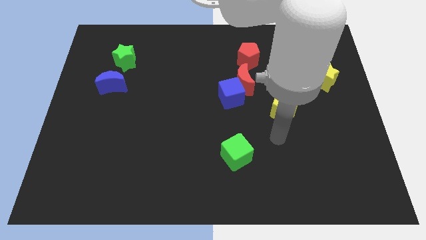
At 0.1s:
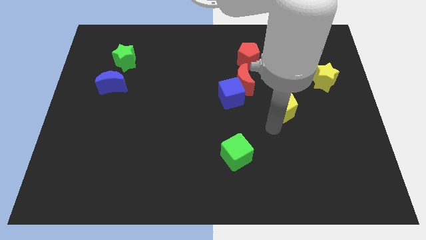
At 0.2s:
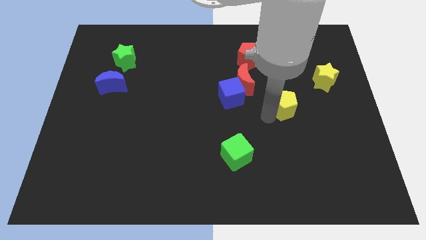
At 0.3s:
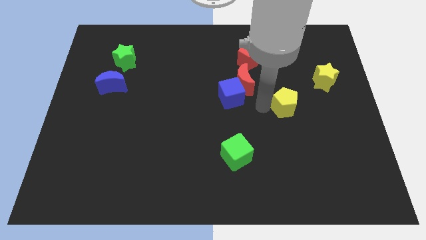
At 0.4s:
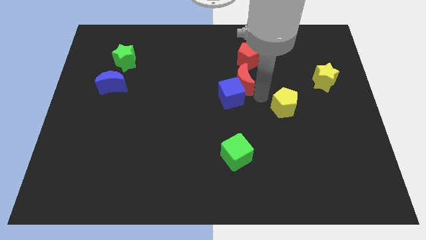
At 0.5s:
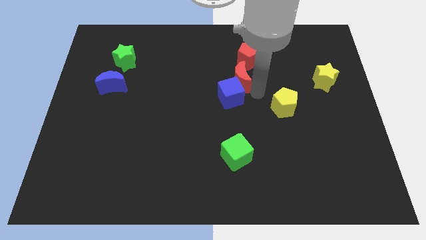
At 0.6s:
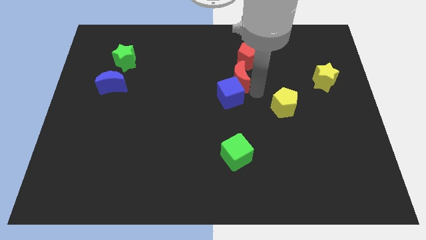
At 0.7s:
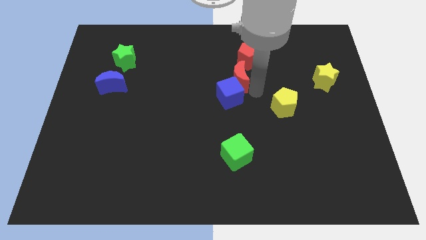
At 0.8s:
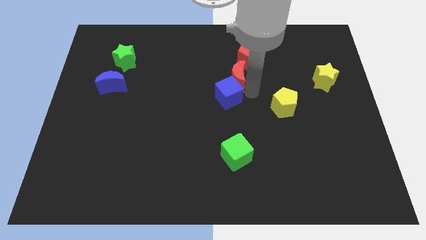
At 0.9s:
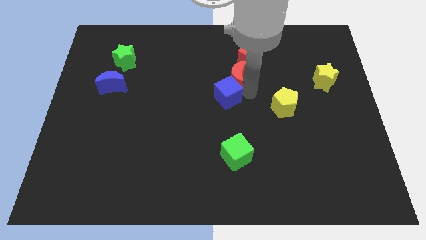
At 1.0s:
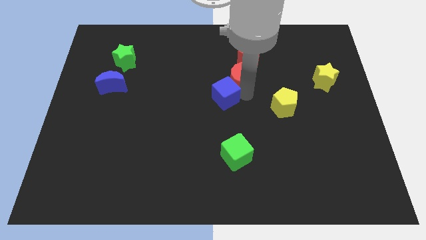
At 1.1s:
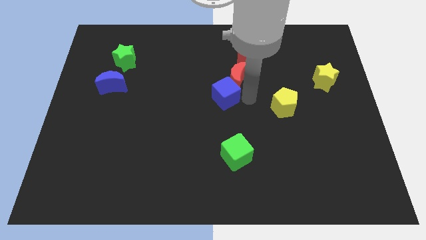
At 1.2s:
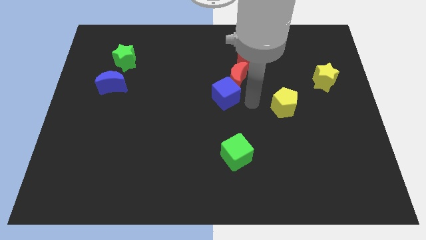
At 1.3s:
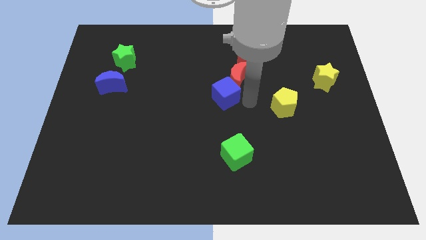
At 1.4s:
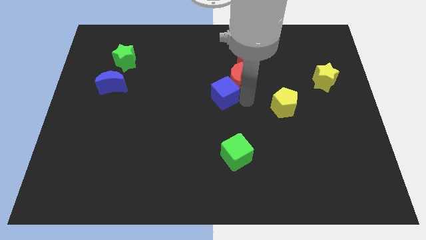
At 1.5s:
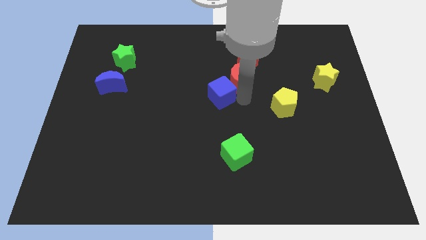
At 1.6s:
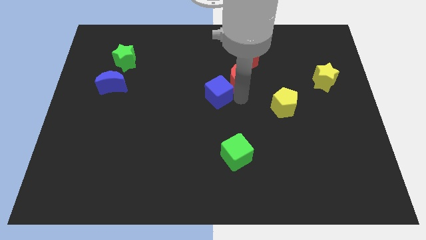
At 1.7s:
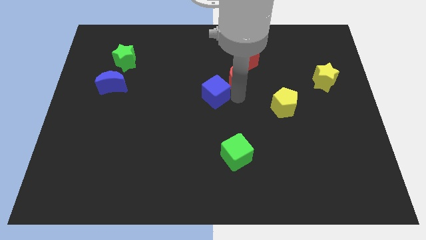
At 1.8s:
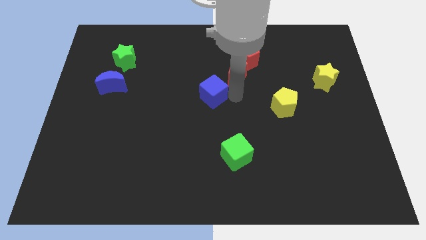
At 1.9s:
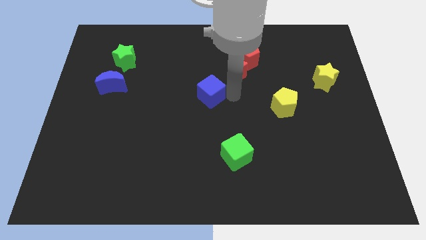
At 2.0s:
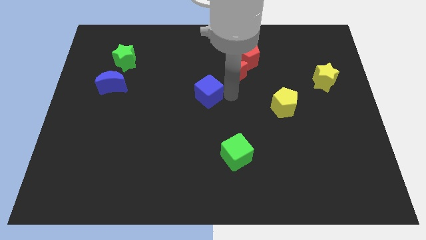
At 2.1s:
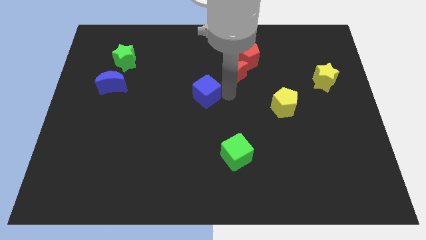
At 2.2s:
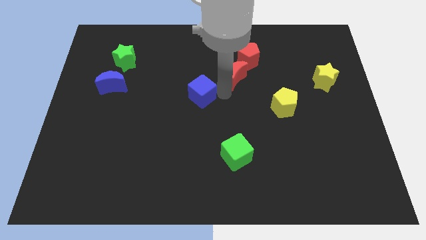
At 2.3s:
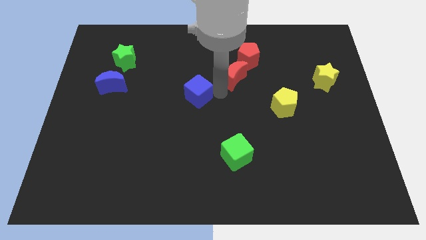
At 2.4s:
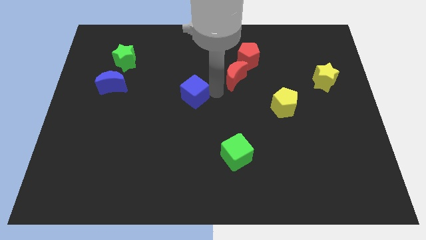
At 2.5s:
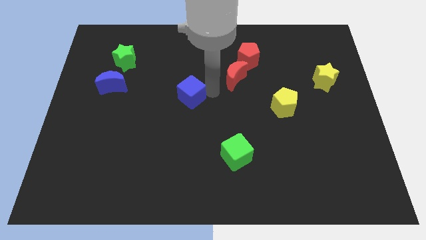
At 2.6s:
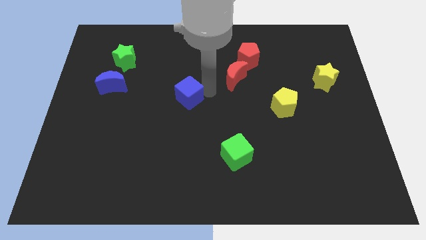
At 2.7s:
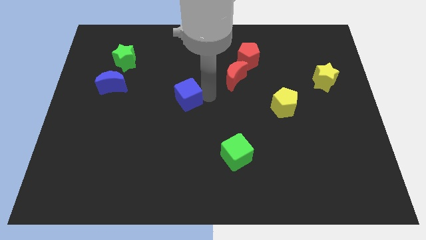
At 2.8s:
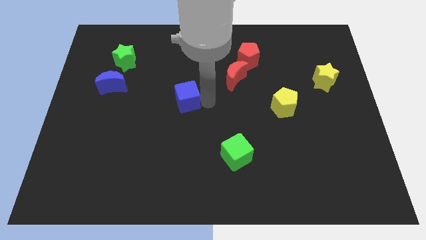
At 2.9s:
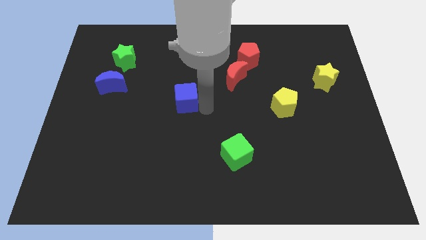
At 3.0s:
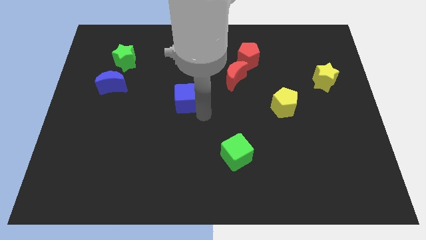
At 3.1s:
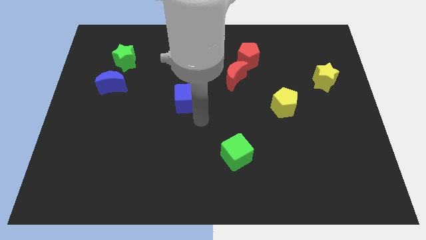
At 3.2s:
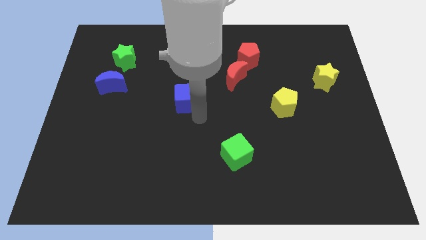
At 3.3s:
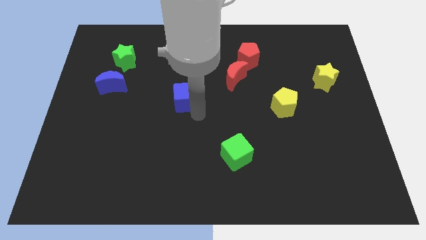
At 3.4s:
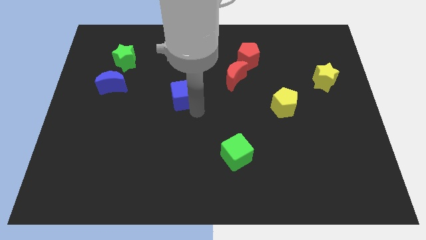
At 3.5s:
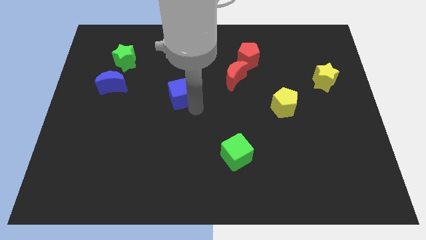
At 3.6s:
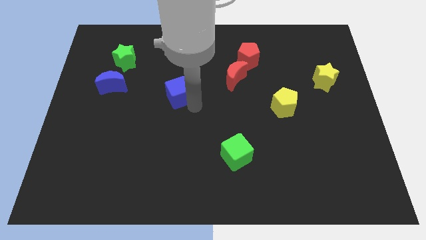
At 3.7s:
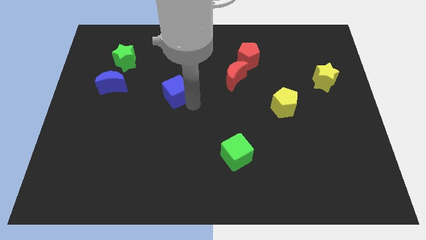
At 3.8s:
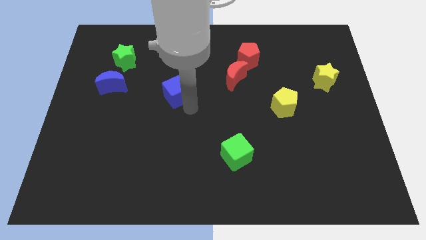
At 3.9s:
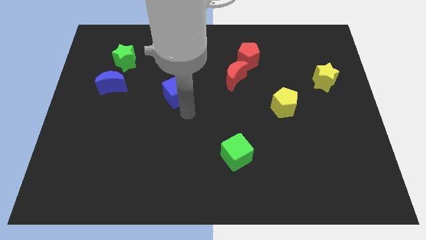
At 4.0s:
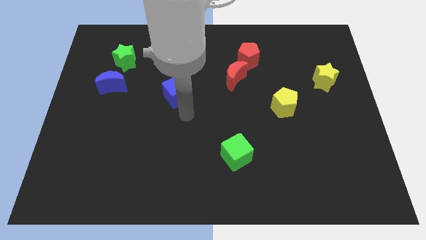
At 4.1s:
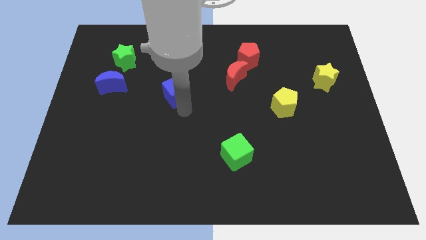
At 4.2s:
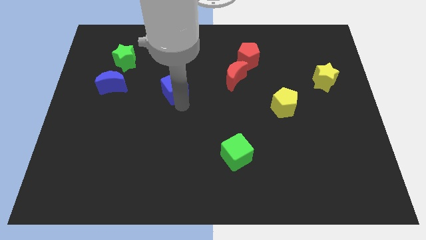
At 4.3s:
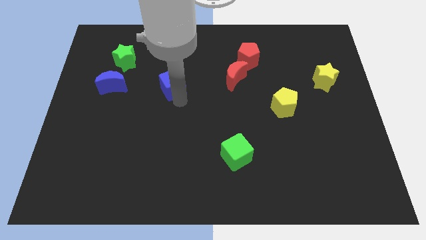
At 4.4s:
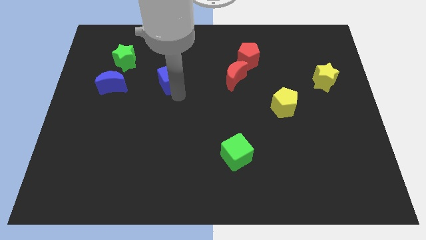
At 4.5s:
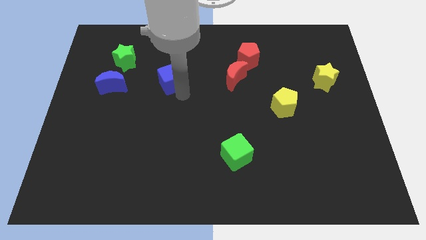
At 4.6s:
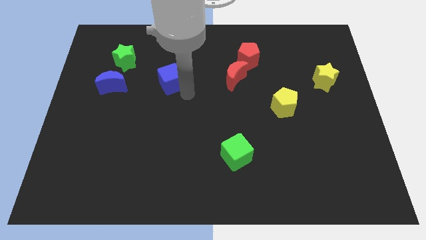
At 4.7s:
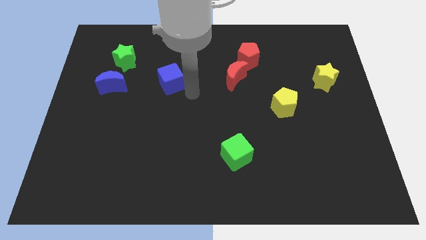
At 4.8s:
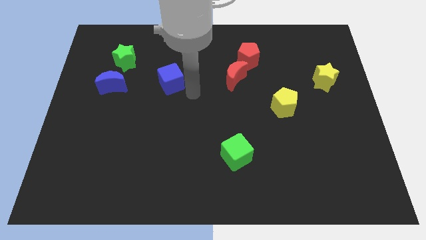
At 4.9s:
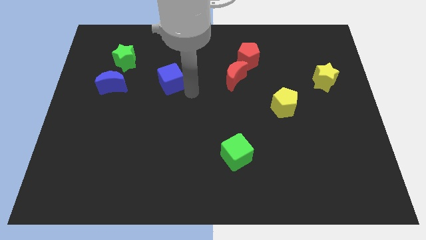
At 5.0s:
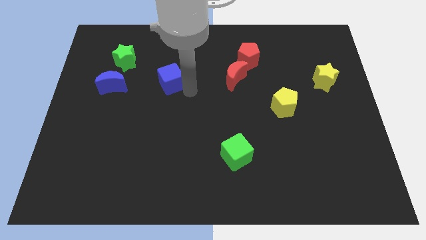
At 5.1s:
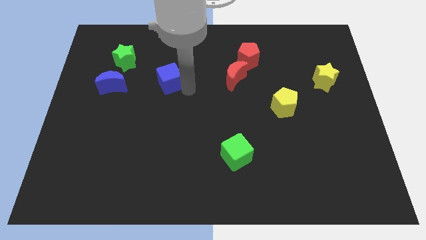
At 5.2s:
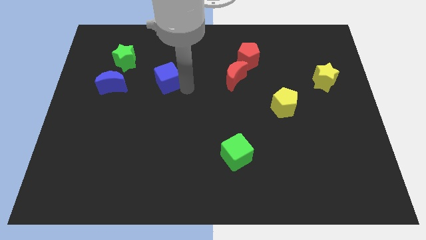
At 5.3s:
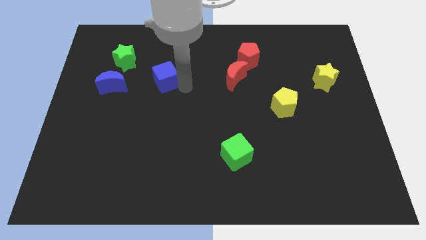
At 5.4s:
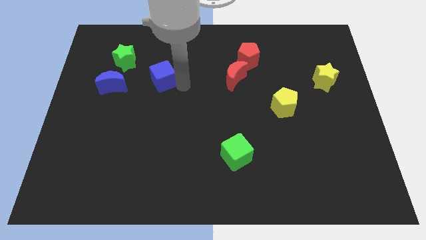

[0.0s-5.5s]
put the blue cube diagonally down and to the right of the green star

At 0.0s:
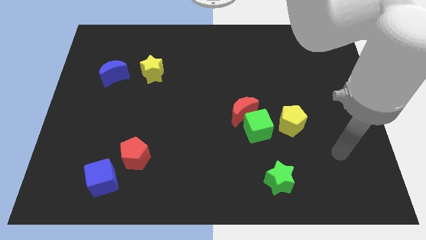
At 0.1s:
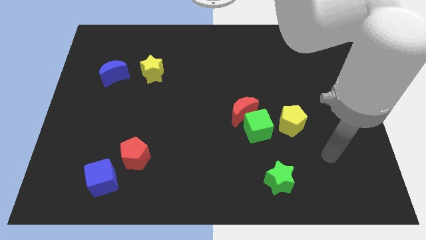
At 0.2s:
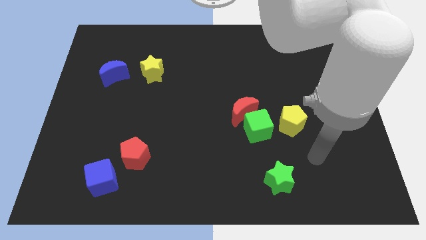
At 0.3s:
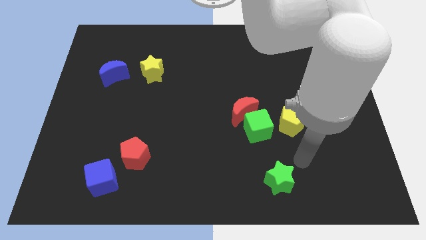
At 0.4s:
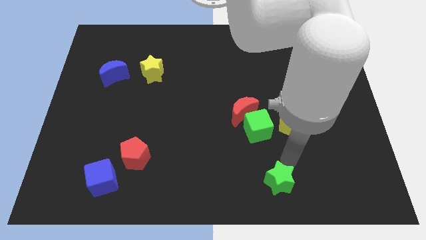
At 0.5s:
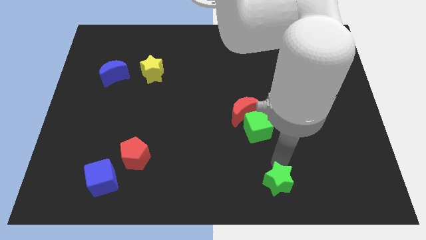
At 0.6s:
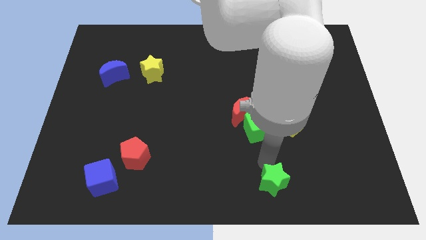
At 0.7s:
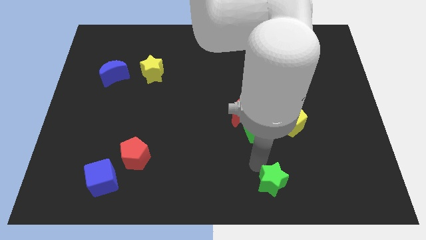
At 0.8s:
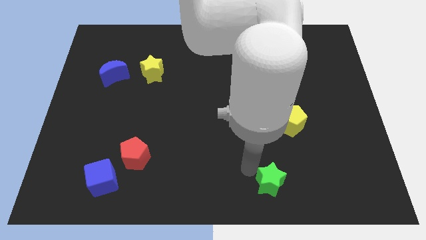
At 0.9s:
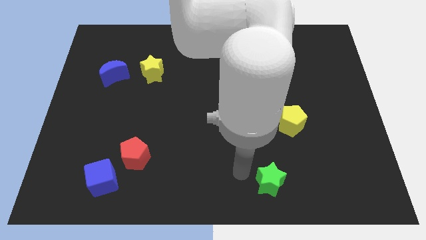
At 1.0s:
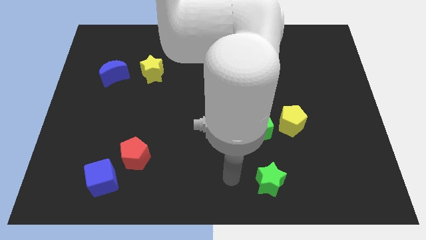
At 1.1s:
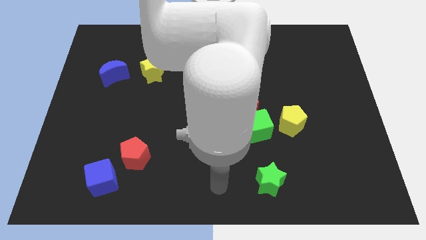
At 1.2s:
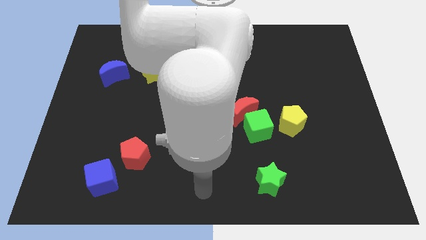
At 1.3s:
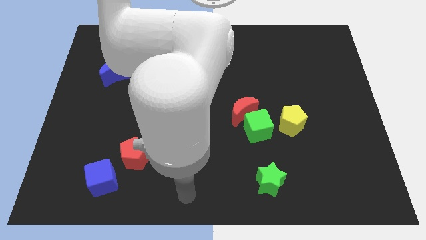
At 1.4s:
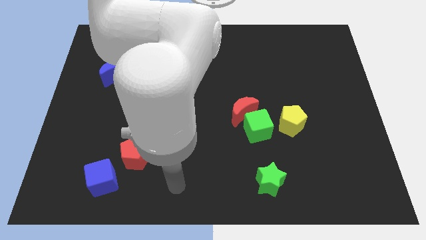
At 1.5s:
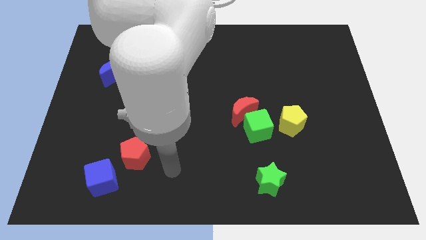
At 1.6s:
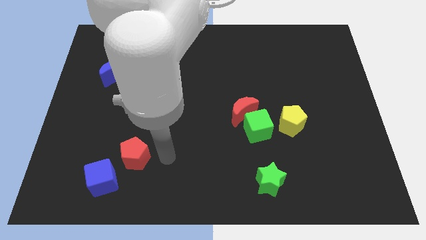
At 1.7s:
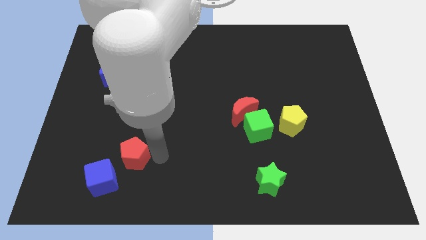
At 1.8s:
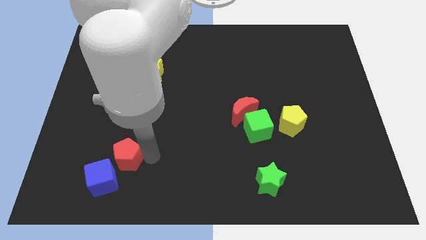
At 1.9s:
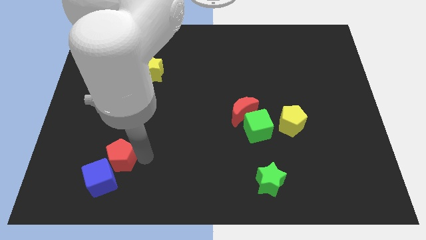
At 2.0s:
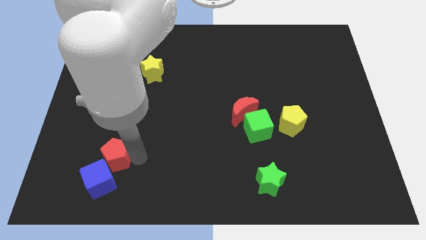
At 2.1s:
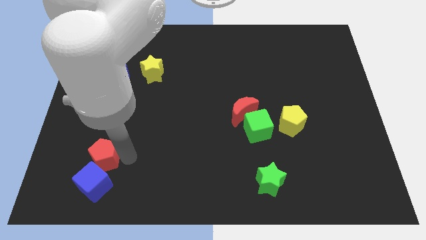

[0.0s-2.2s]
push the red pentagon to the top left of the blue cube

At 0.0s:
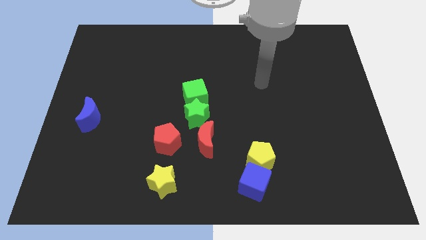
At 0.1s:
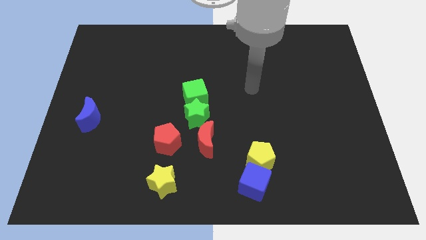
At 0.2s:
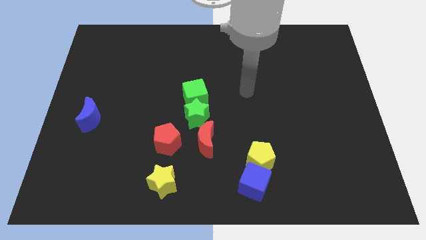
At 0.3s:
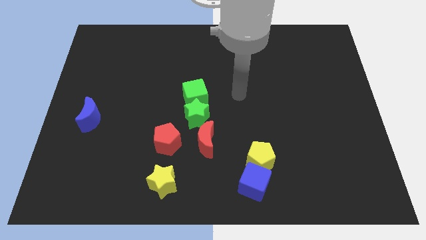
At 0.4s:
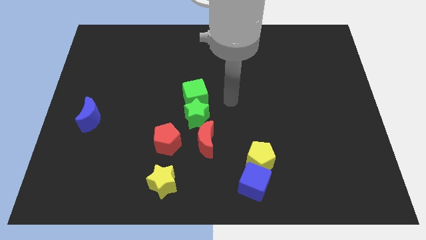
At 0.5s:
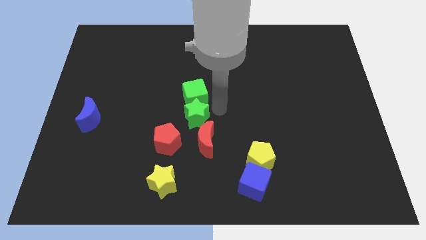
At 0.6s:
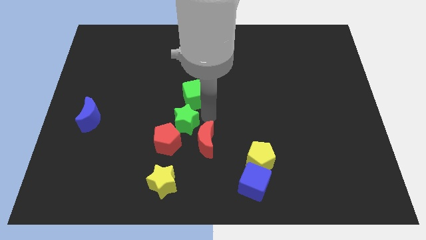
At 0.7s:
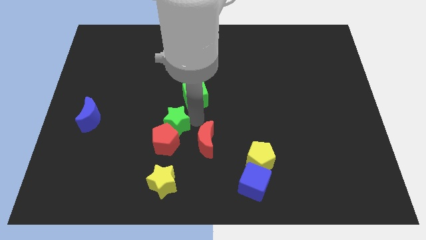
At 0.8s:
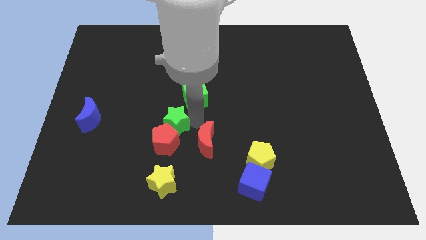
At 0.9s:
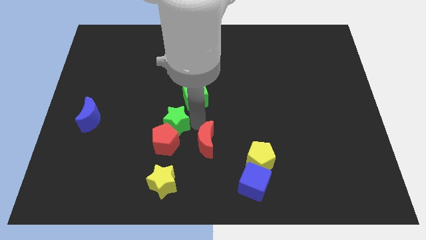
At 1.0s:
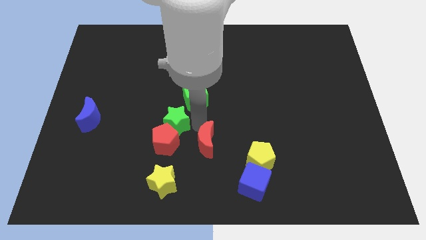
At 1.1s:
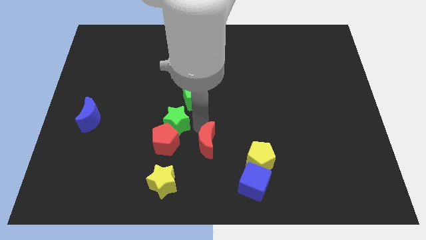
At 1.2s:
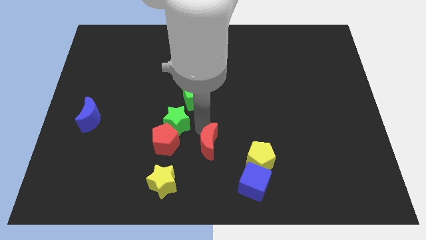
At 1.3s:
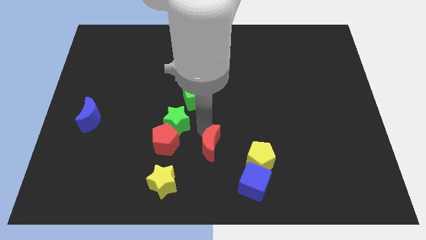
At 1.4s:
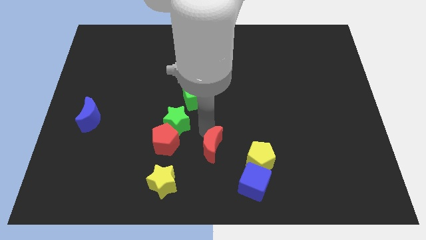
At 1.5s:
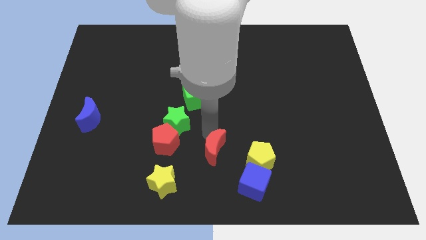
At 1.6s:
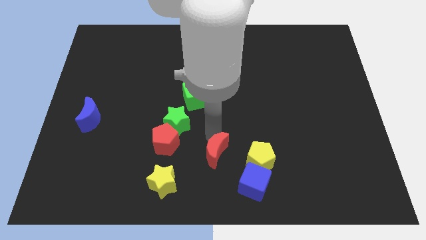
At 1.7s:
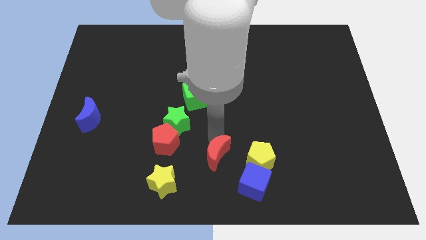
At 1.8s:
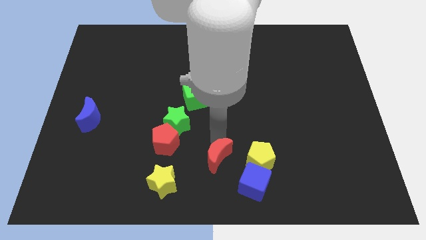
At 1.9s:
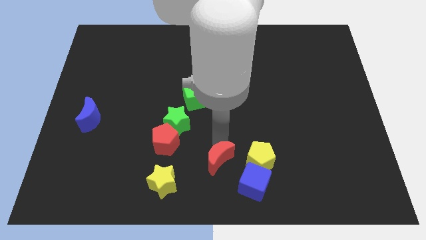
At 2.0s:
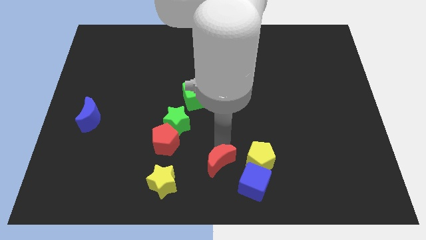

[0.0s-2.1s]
put the red moon to the right of the yellow star
